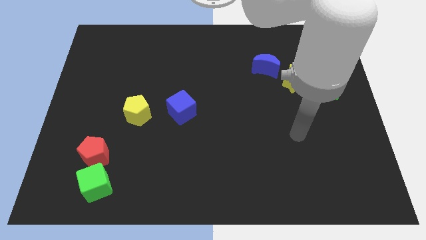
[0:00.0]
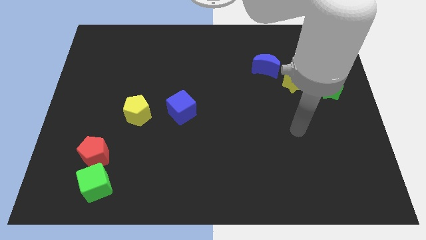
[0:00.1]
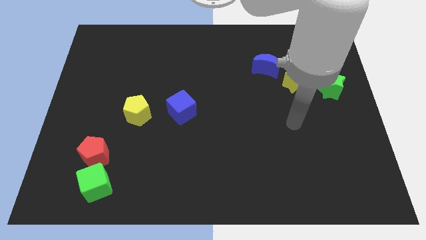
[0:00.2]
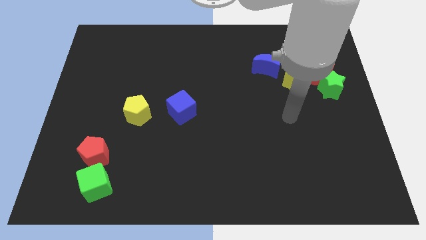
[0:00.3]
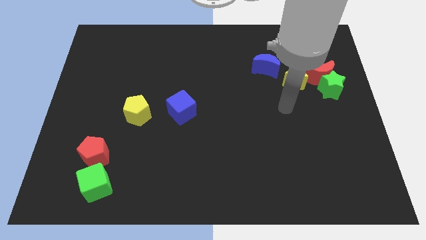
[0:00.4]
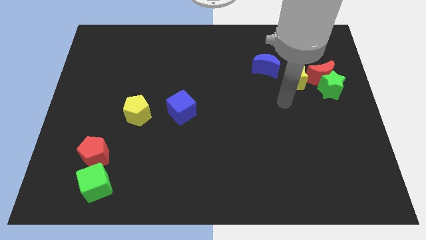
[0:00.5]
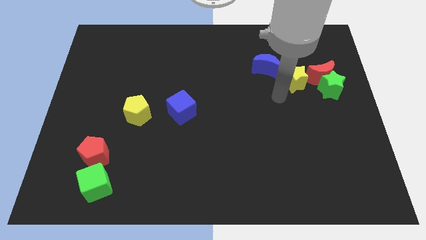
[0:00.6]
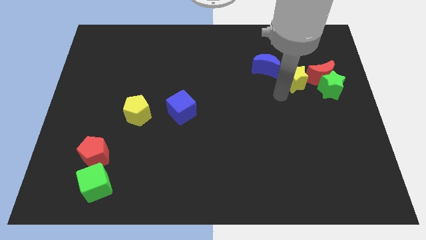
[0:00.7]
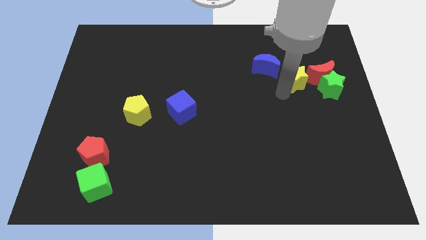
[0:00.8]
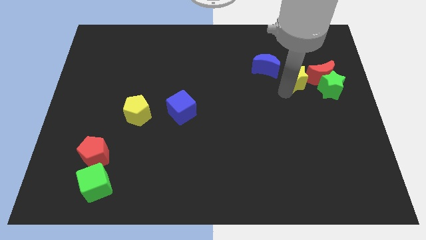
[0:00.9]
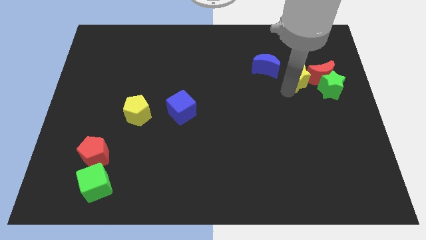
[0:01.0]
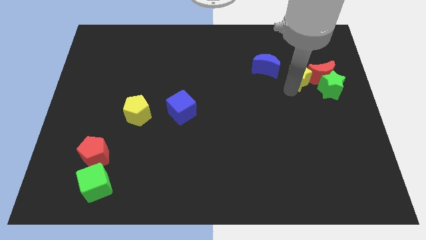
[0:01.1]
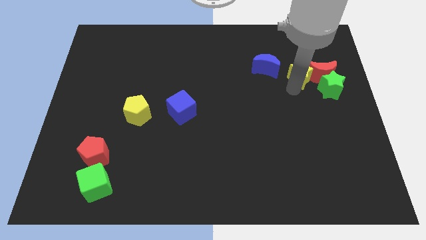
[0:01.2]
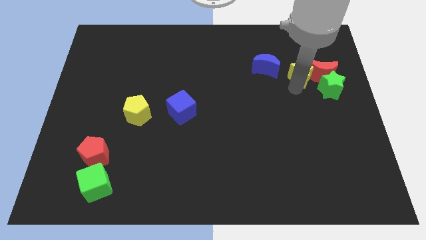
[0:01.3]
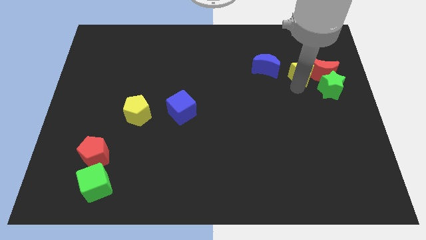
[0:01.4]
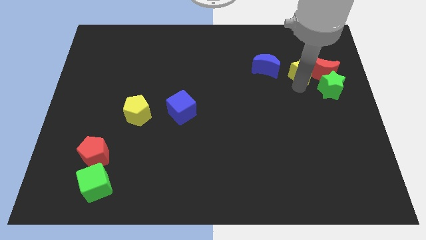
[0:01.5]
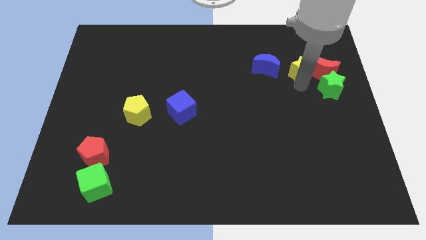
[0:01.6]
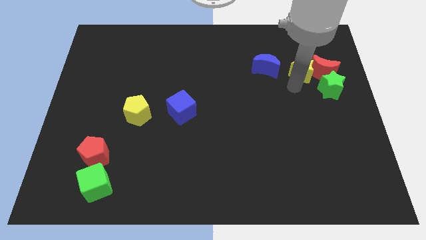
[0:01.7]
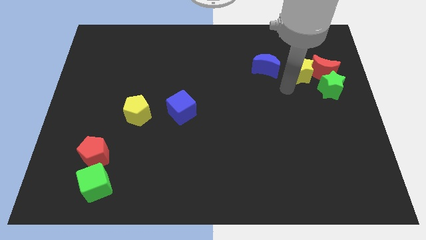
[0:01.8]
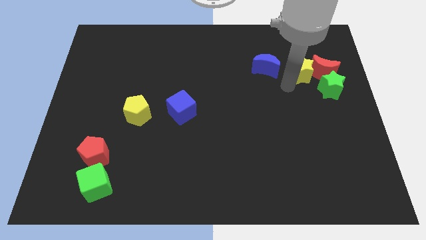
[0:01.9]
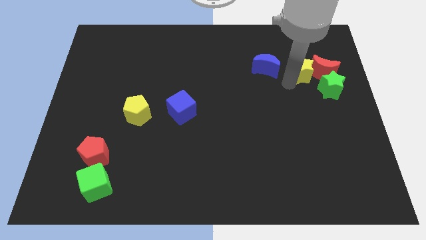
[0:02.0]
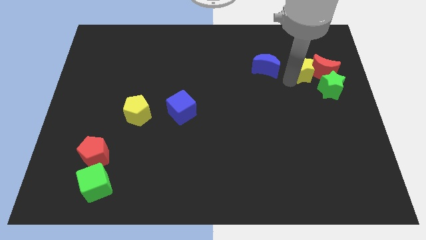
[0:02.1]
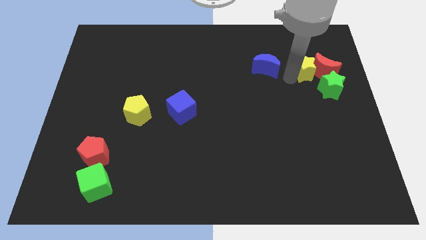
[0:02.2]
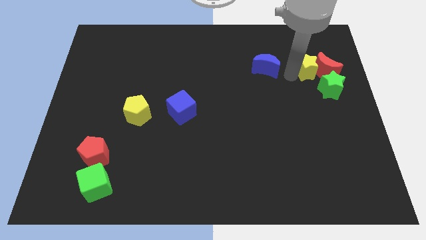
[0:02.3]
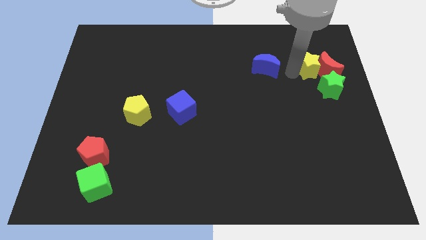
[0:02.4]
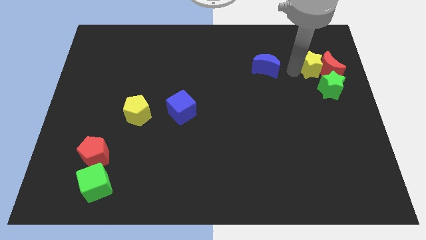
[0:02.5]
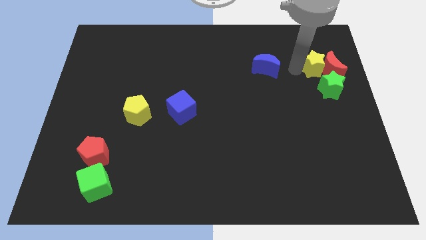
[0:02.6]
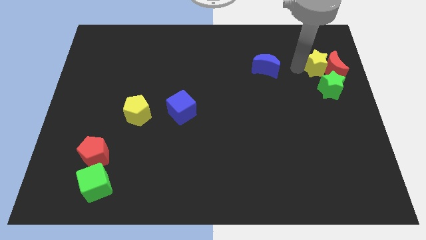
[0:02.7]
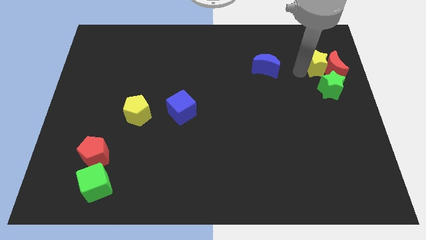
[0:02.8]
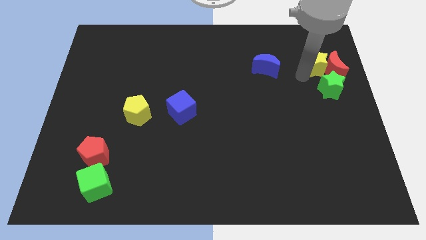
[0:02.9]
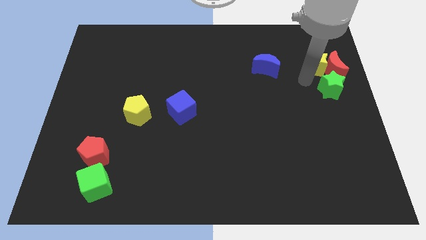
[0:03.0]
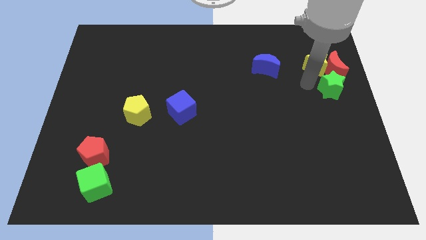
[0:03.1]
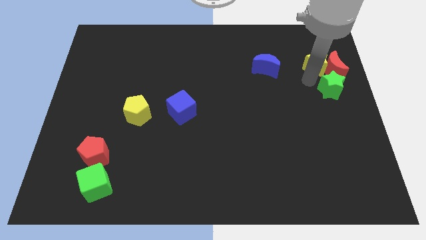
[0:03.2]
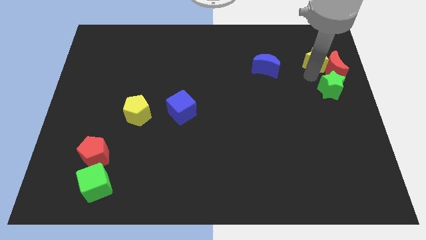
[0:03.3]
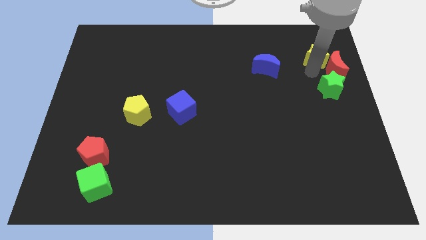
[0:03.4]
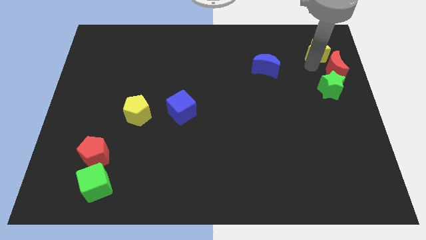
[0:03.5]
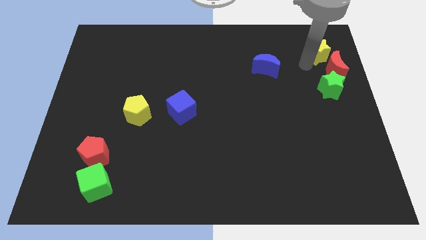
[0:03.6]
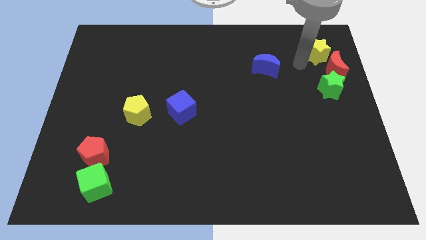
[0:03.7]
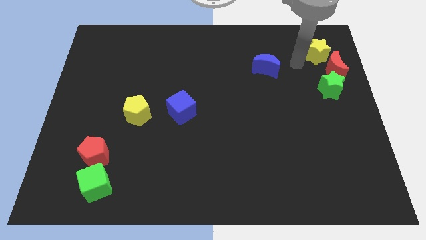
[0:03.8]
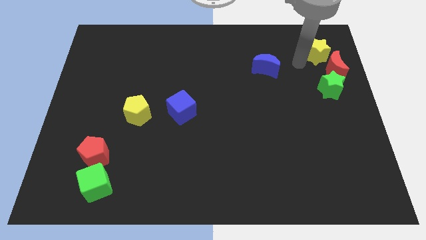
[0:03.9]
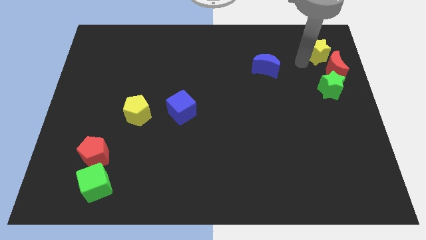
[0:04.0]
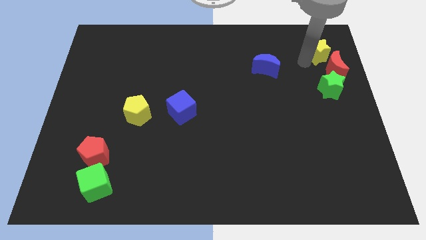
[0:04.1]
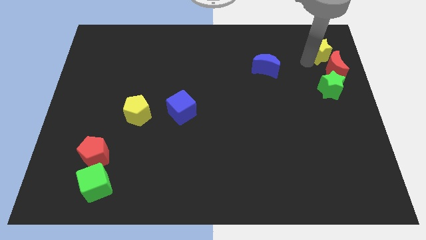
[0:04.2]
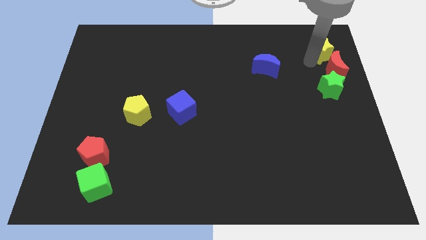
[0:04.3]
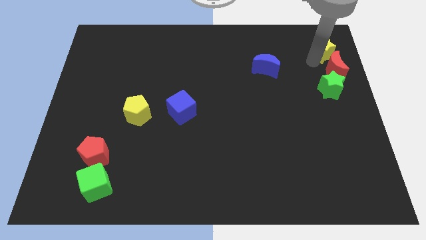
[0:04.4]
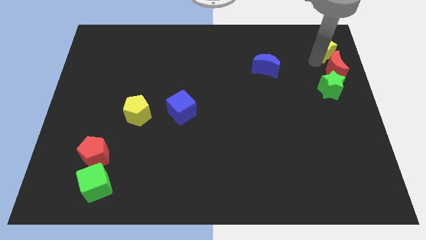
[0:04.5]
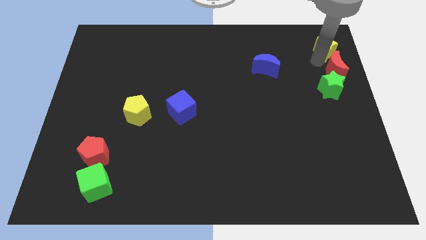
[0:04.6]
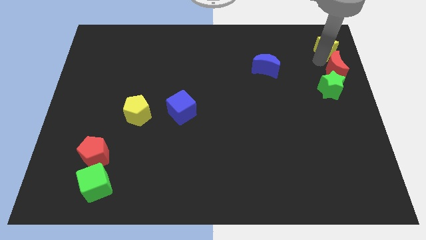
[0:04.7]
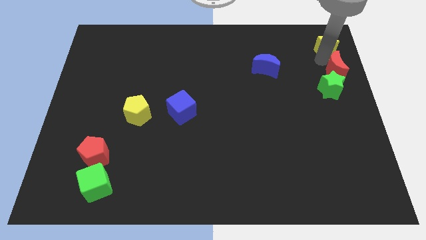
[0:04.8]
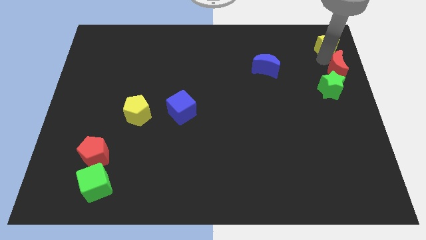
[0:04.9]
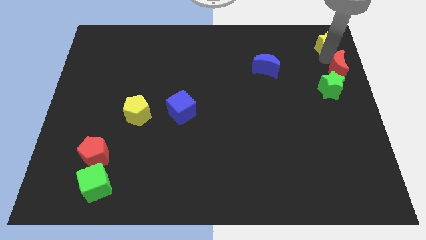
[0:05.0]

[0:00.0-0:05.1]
slide the yellow star to the upper right corner

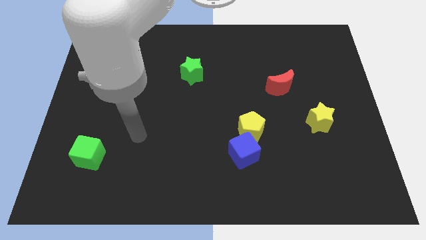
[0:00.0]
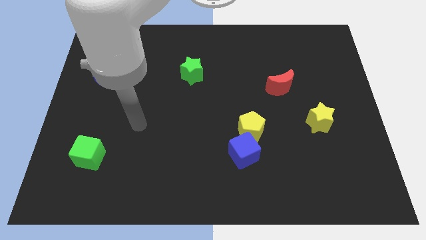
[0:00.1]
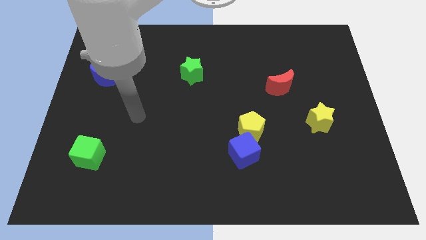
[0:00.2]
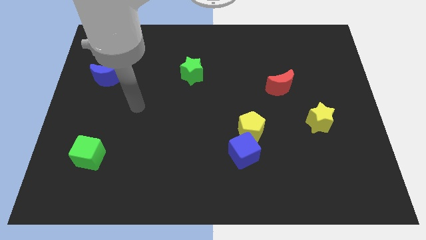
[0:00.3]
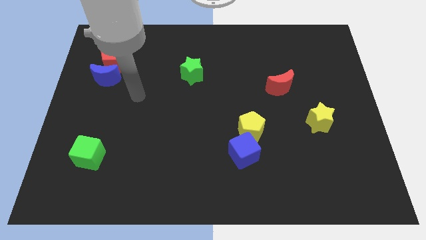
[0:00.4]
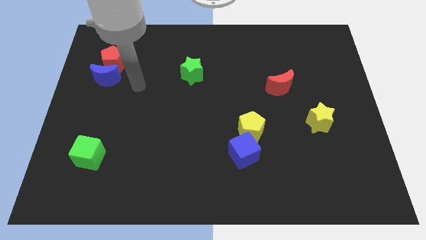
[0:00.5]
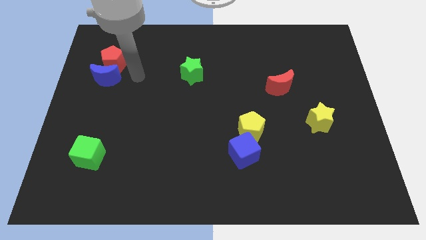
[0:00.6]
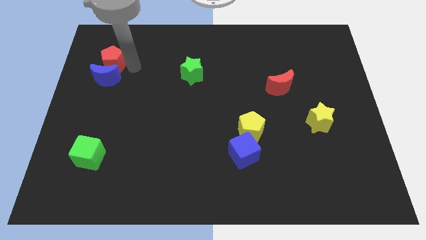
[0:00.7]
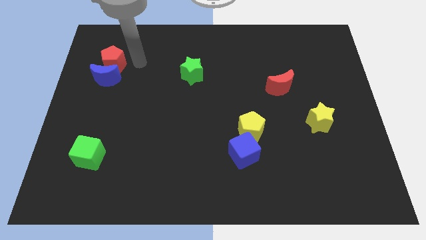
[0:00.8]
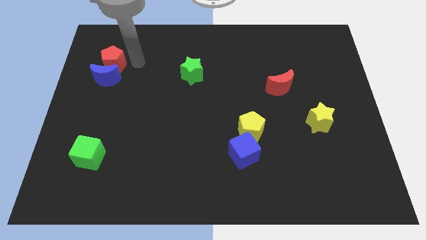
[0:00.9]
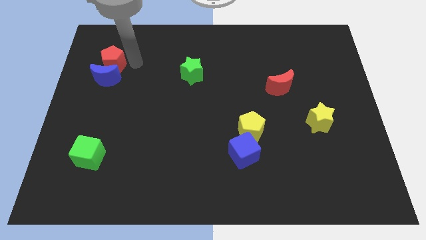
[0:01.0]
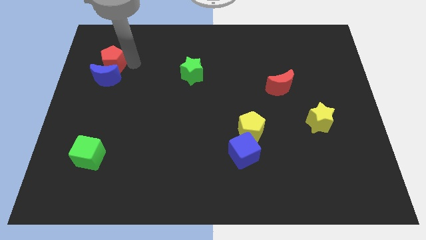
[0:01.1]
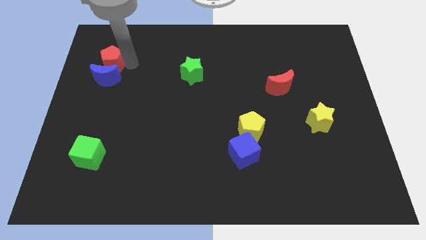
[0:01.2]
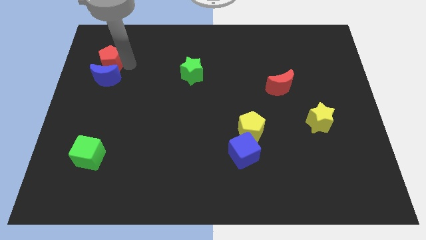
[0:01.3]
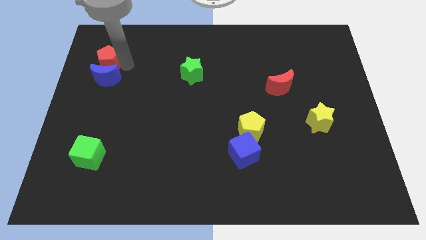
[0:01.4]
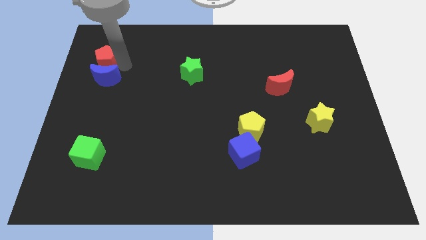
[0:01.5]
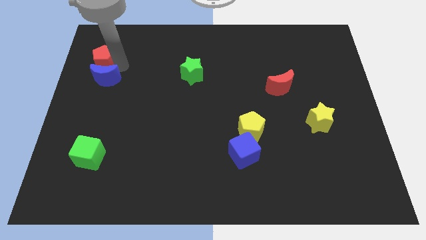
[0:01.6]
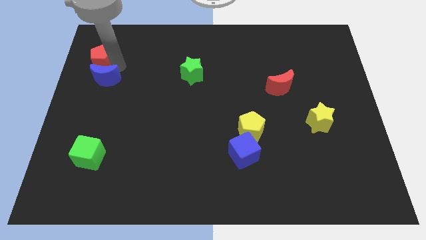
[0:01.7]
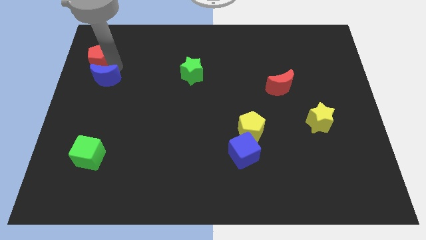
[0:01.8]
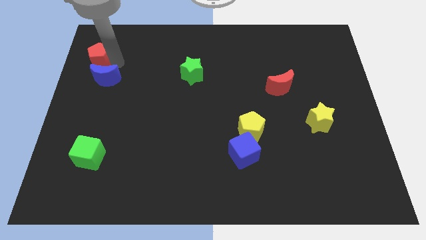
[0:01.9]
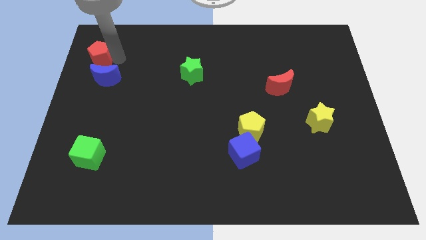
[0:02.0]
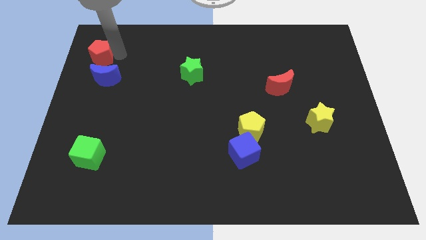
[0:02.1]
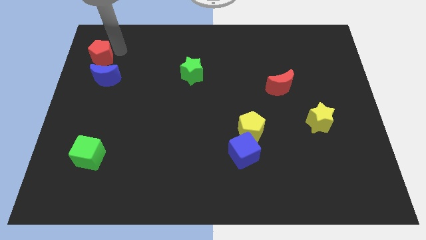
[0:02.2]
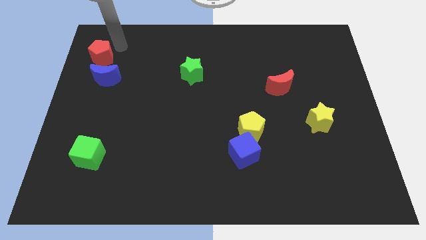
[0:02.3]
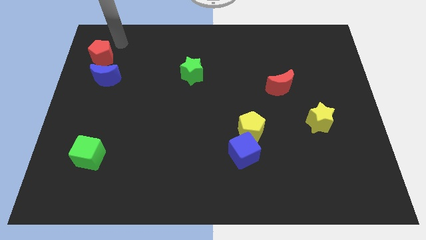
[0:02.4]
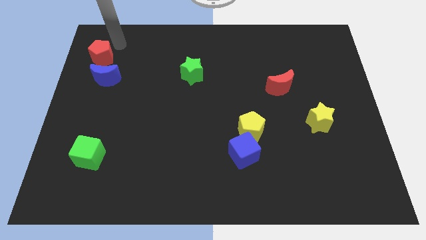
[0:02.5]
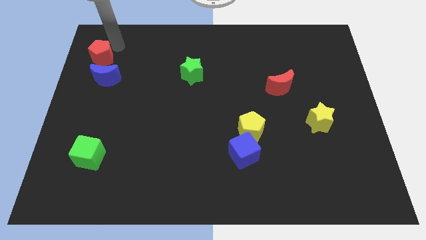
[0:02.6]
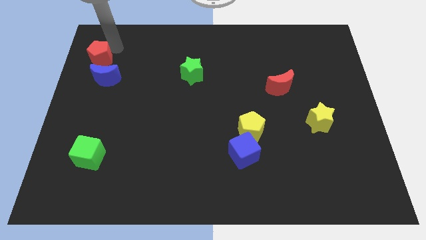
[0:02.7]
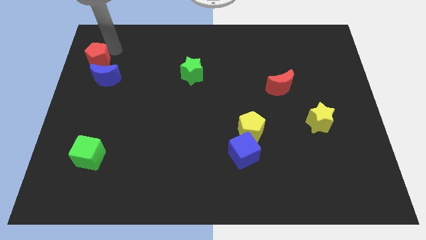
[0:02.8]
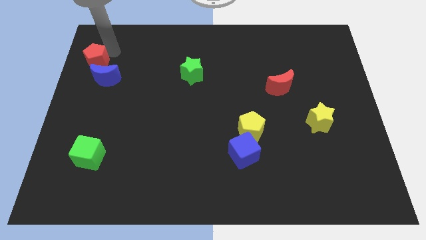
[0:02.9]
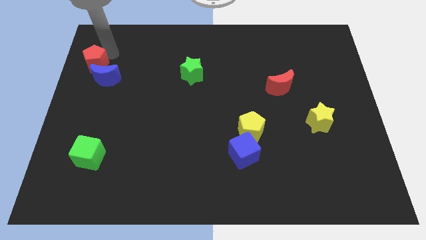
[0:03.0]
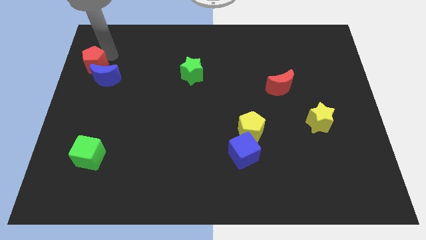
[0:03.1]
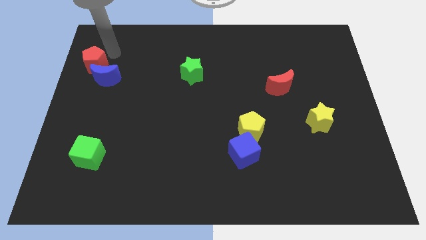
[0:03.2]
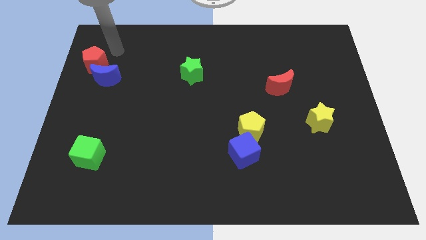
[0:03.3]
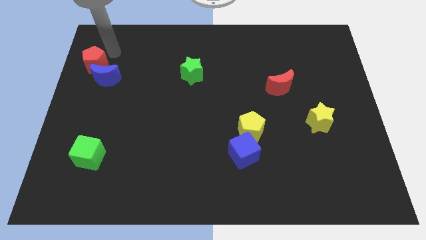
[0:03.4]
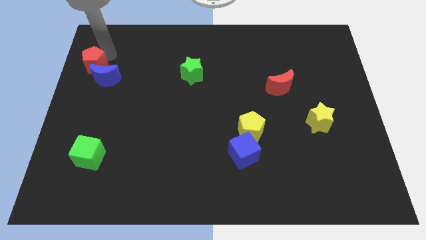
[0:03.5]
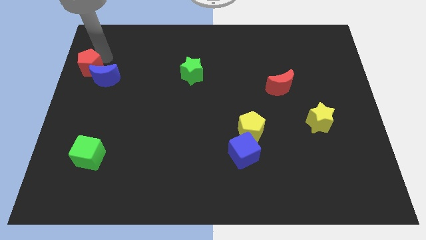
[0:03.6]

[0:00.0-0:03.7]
push the red pentagon to the center left
